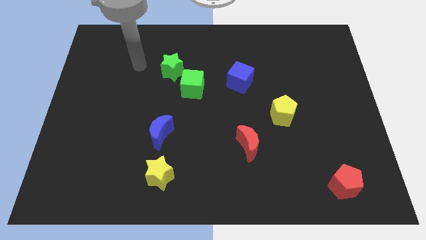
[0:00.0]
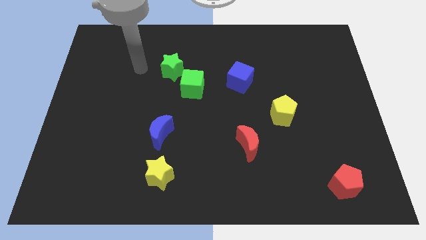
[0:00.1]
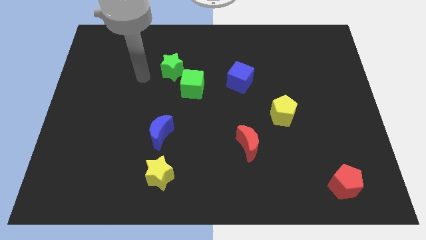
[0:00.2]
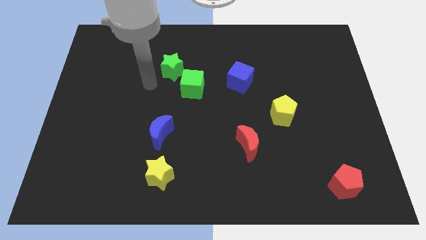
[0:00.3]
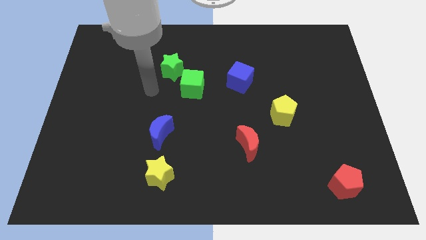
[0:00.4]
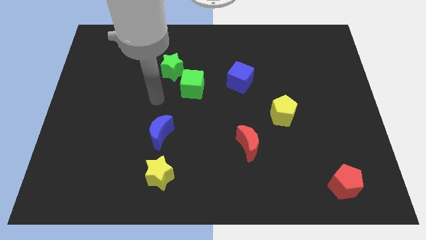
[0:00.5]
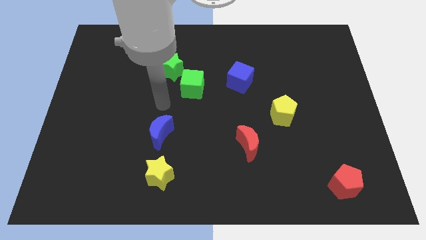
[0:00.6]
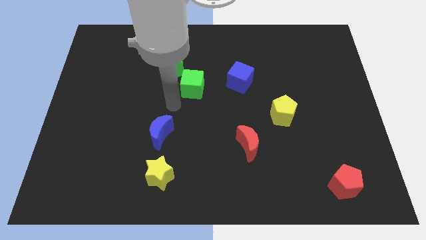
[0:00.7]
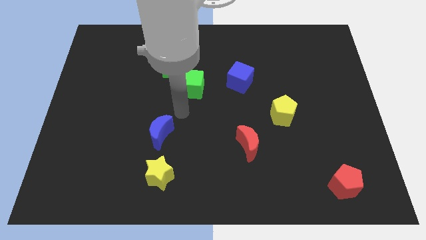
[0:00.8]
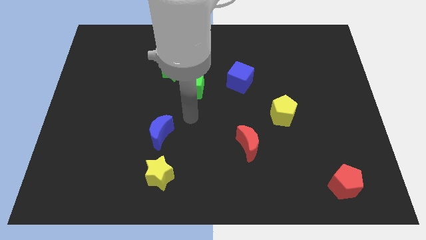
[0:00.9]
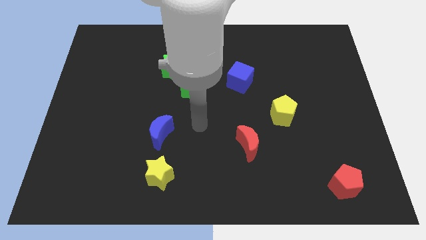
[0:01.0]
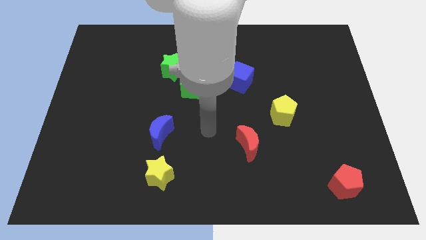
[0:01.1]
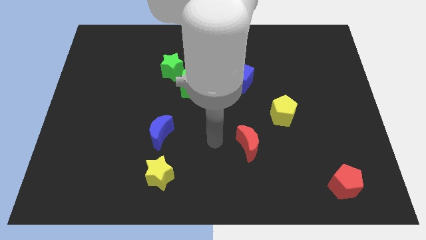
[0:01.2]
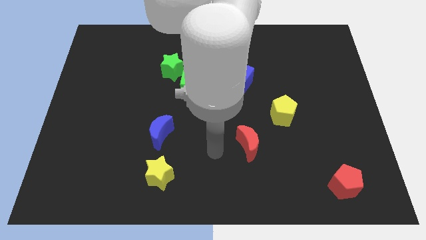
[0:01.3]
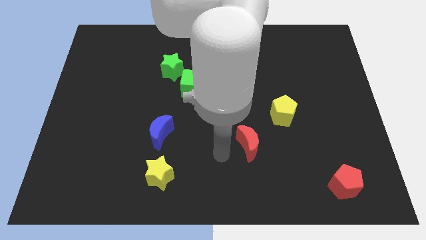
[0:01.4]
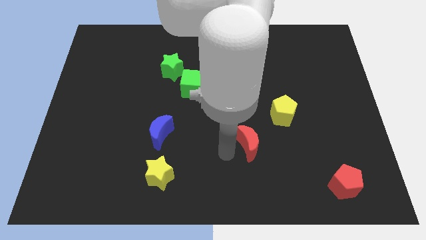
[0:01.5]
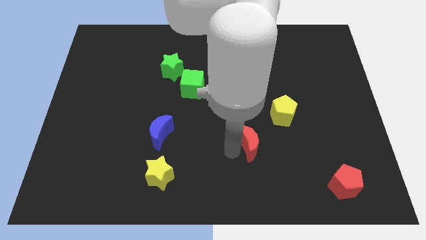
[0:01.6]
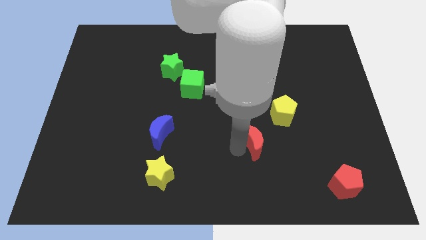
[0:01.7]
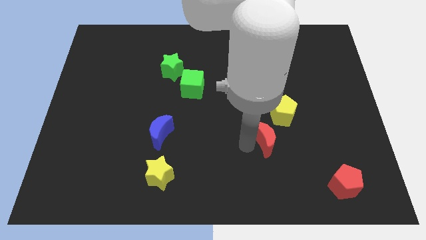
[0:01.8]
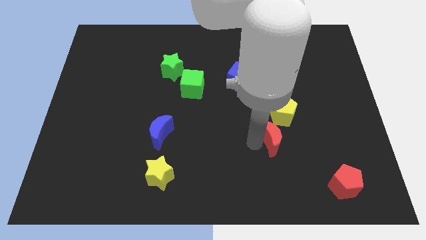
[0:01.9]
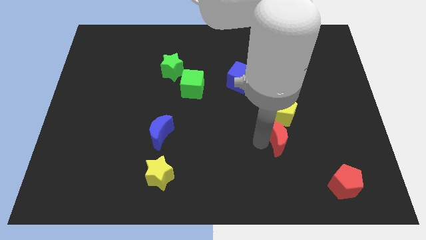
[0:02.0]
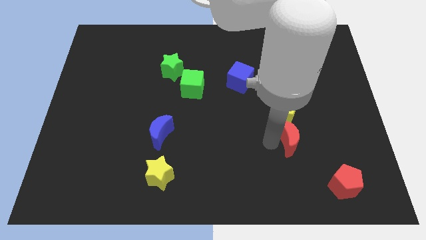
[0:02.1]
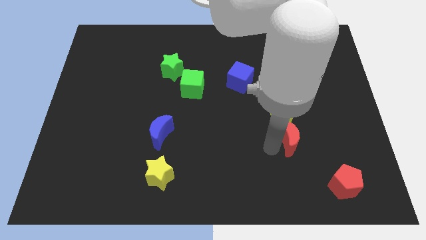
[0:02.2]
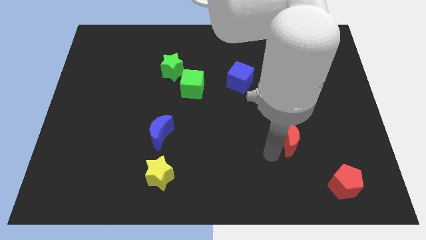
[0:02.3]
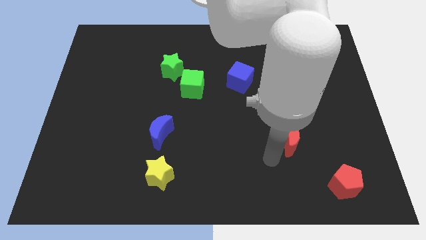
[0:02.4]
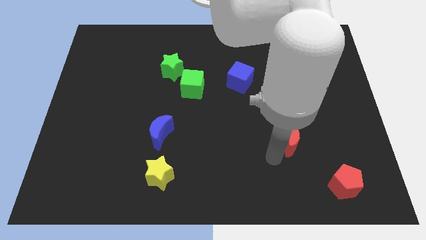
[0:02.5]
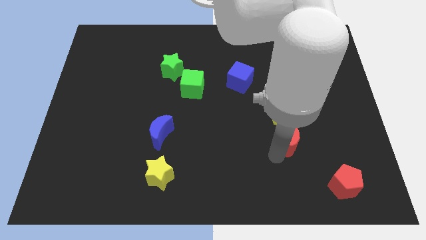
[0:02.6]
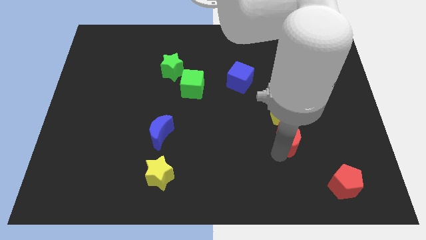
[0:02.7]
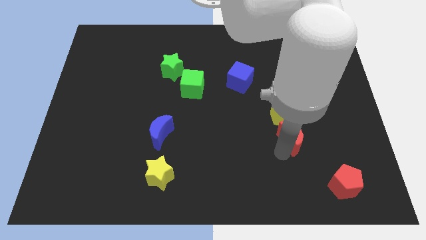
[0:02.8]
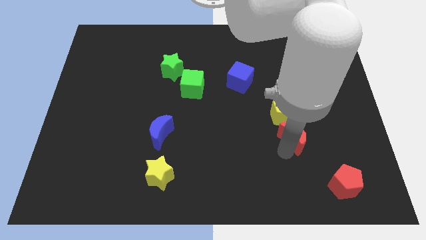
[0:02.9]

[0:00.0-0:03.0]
slightly slide the red moon diagonally upwards and to the right

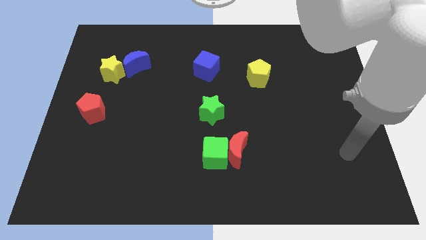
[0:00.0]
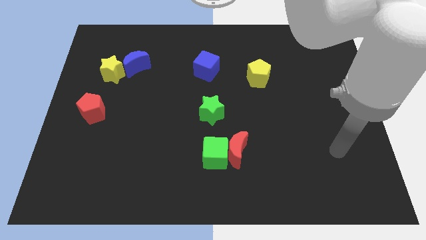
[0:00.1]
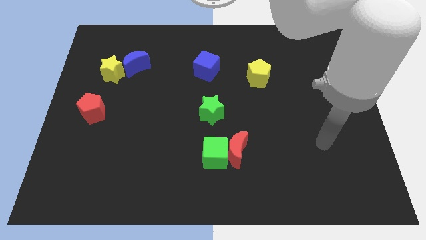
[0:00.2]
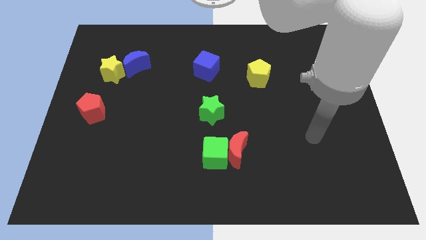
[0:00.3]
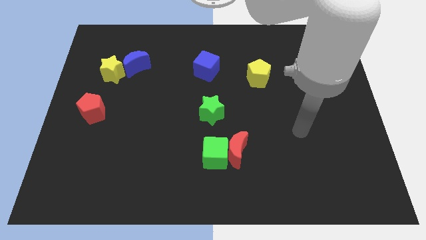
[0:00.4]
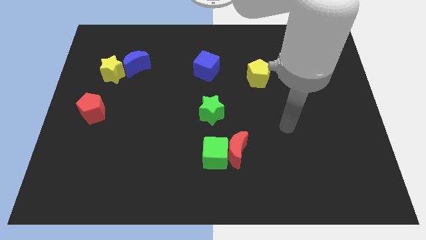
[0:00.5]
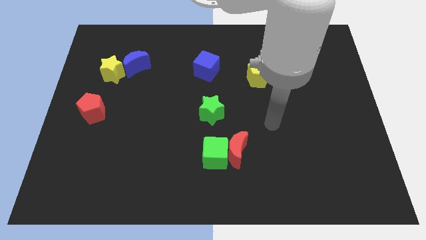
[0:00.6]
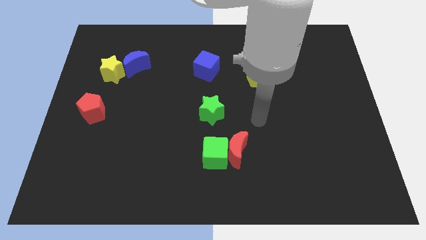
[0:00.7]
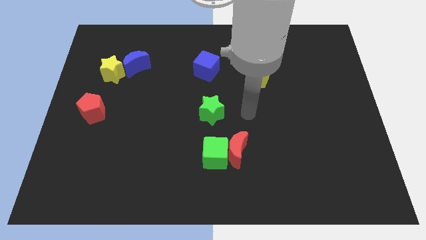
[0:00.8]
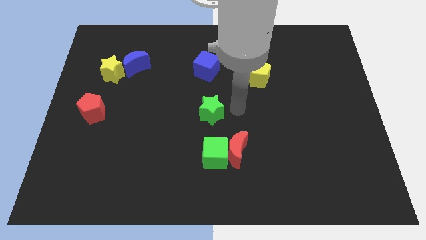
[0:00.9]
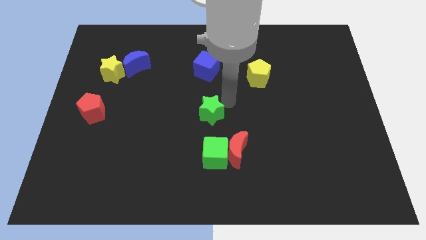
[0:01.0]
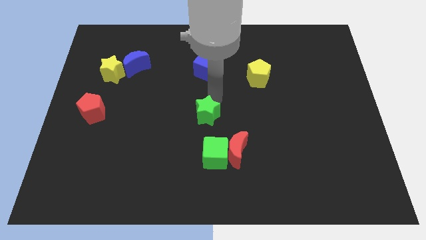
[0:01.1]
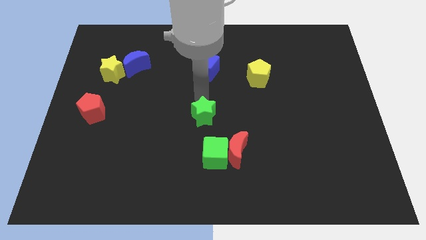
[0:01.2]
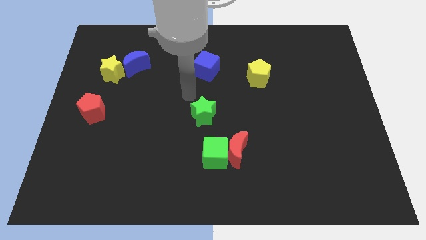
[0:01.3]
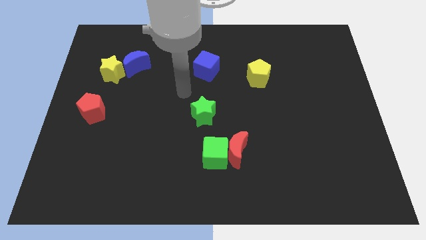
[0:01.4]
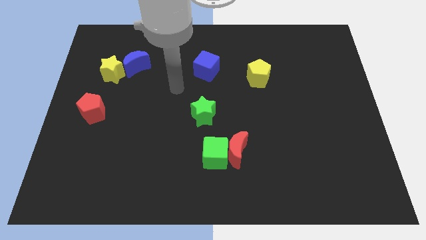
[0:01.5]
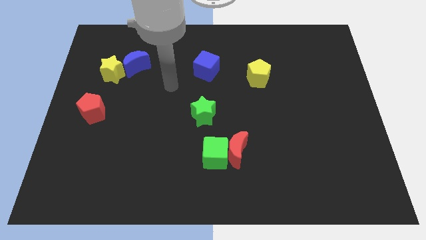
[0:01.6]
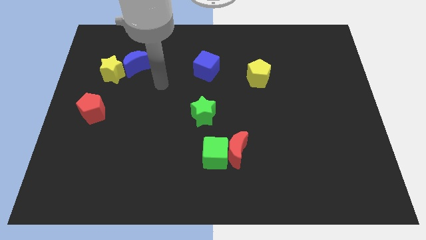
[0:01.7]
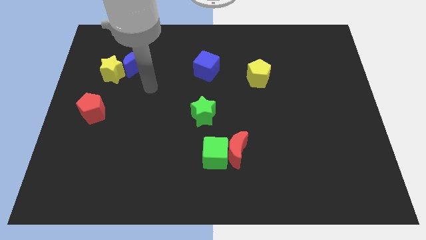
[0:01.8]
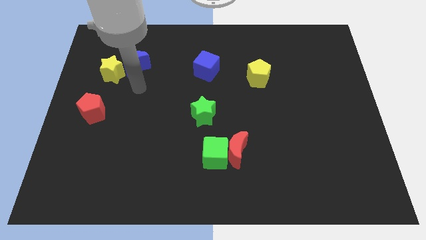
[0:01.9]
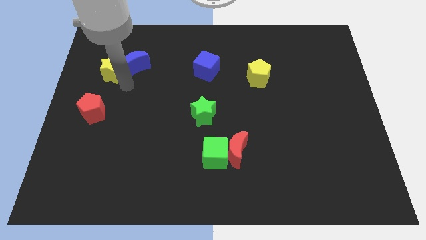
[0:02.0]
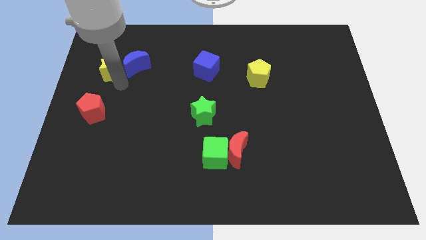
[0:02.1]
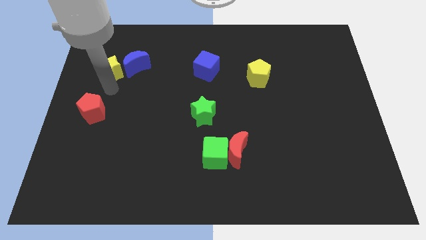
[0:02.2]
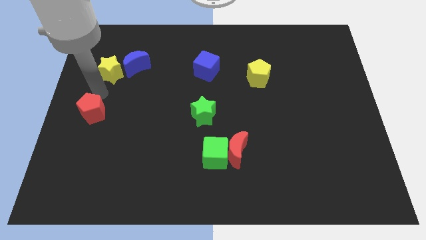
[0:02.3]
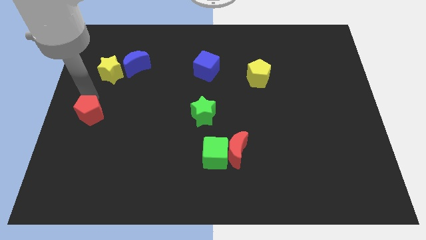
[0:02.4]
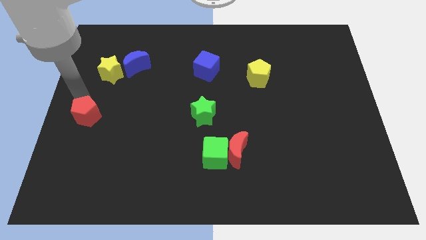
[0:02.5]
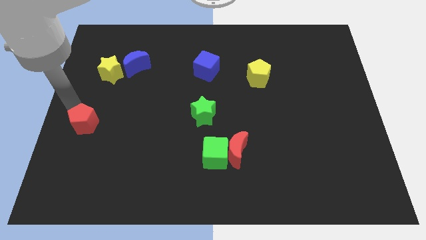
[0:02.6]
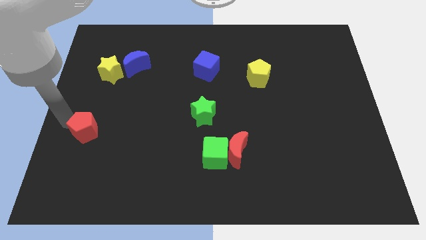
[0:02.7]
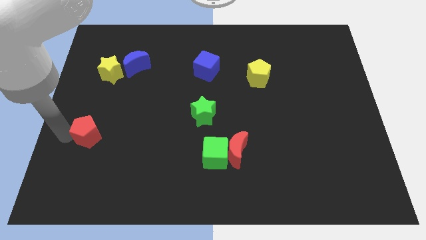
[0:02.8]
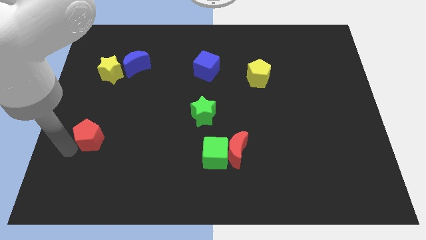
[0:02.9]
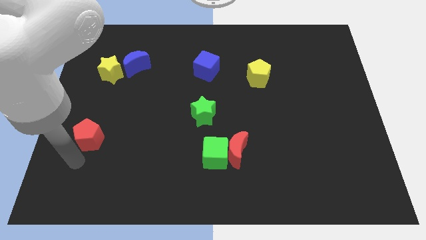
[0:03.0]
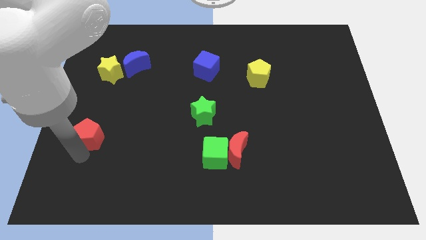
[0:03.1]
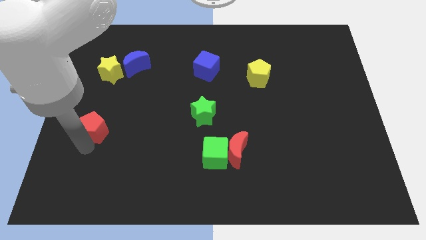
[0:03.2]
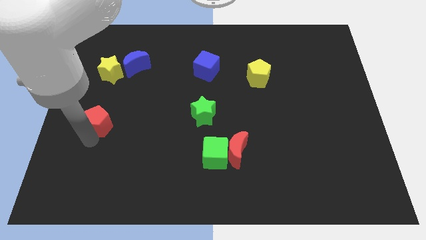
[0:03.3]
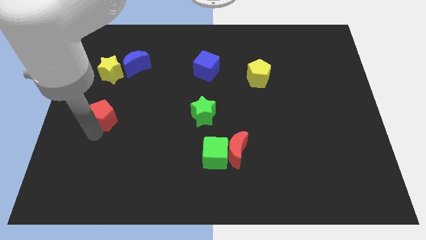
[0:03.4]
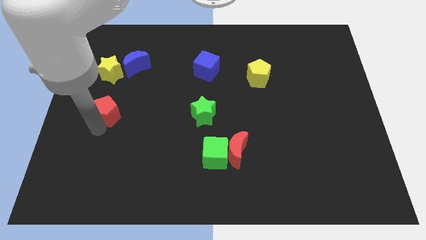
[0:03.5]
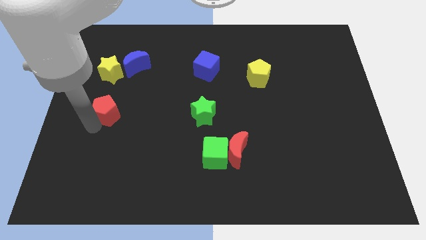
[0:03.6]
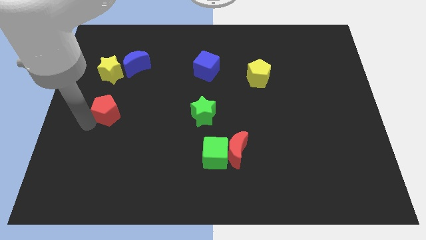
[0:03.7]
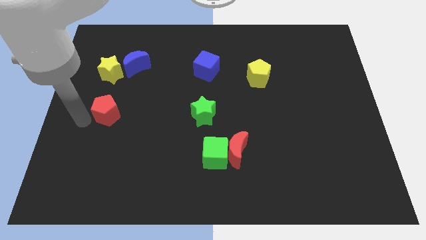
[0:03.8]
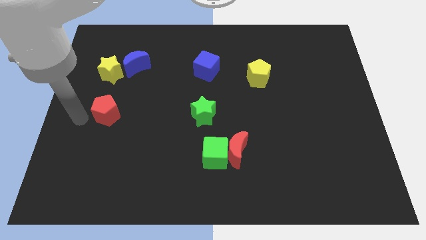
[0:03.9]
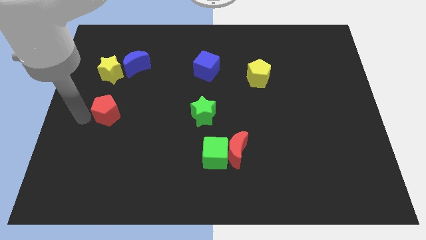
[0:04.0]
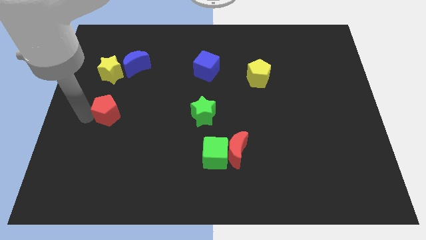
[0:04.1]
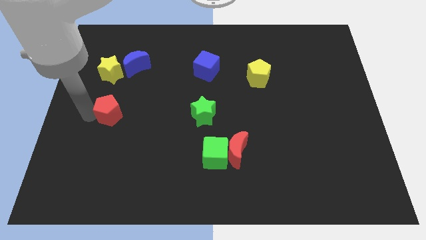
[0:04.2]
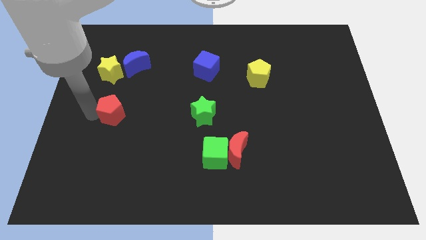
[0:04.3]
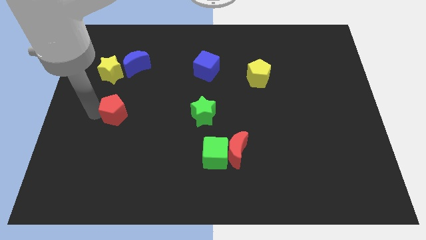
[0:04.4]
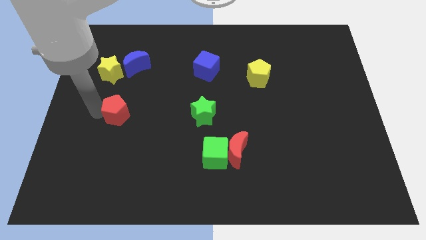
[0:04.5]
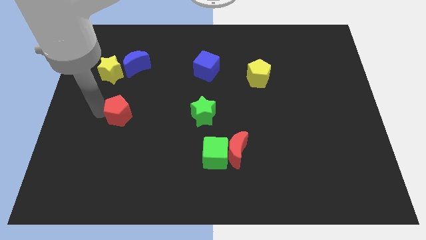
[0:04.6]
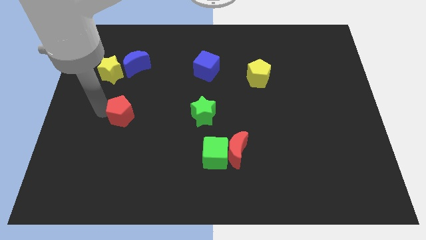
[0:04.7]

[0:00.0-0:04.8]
push the red pentagon to the right somewhat
